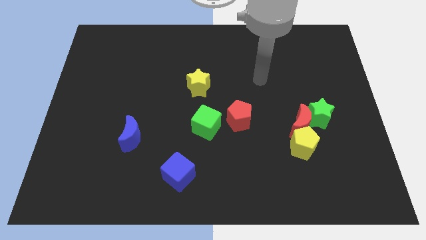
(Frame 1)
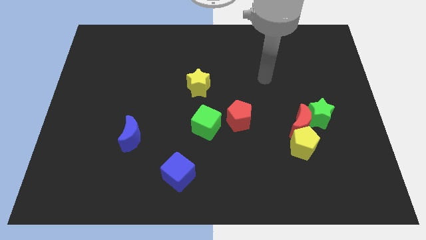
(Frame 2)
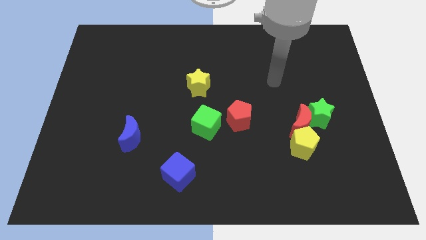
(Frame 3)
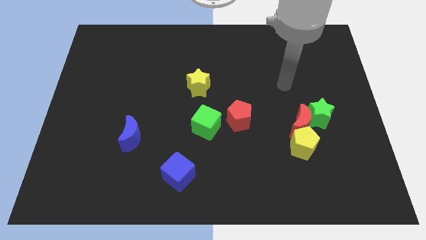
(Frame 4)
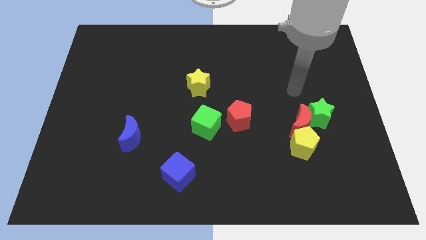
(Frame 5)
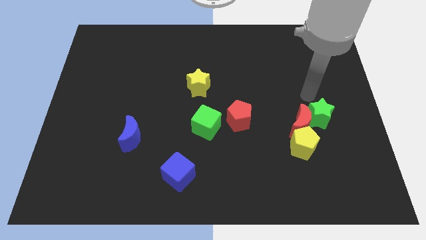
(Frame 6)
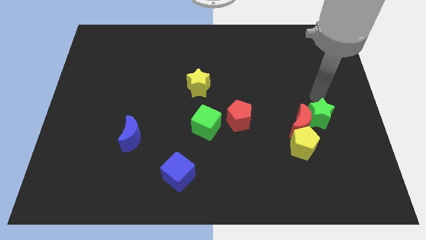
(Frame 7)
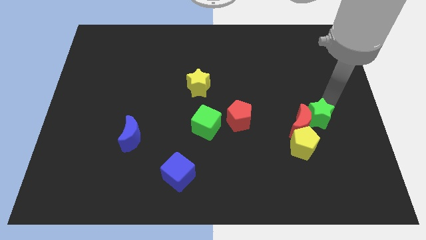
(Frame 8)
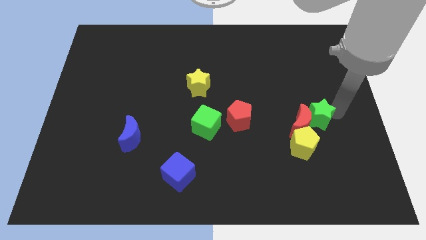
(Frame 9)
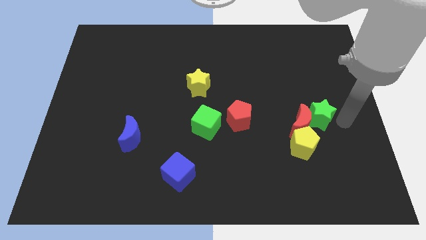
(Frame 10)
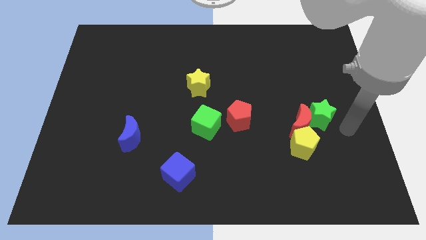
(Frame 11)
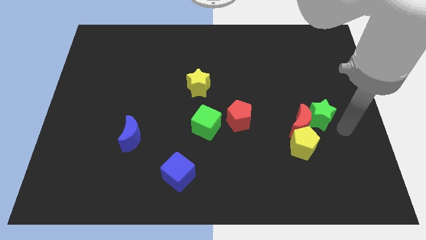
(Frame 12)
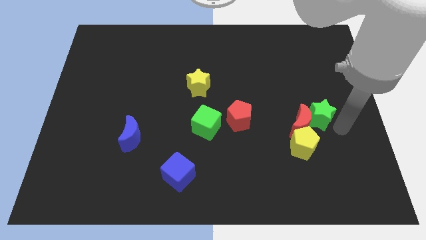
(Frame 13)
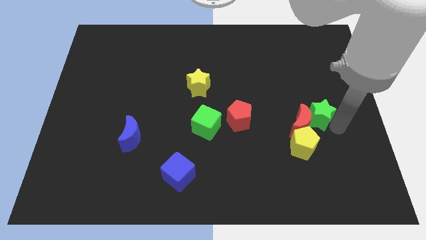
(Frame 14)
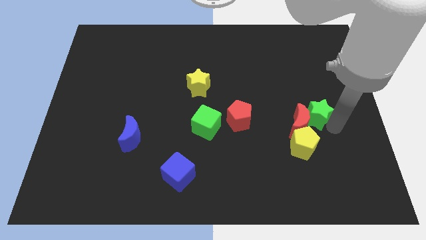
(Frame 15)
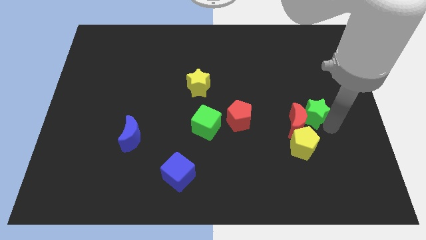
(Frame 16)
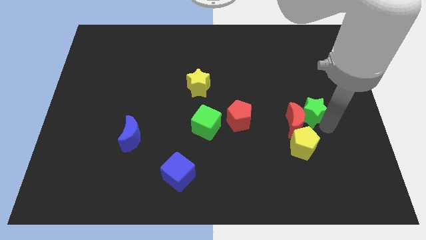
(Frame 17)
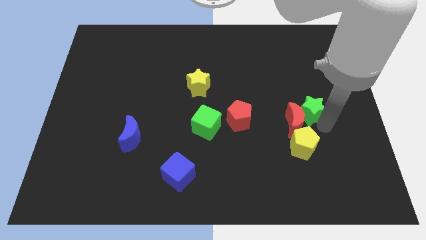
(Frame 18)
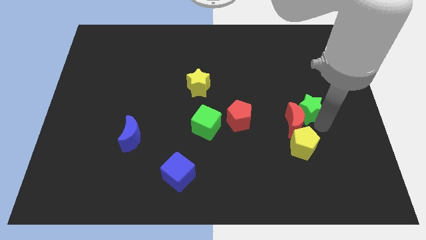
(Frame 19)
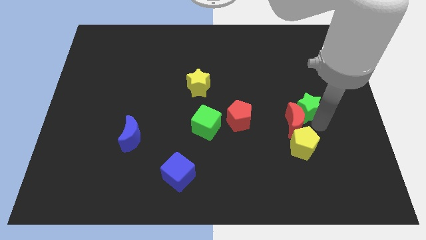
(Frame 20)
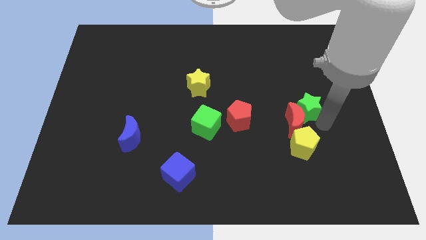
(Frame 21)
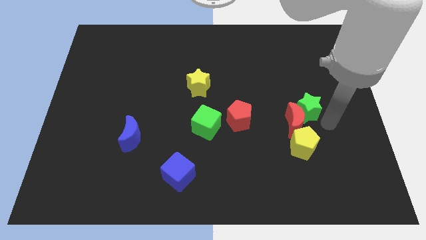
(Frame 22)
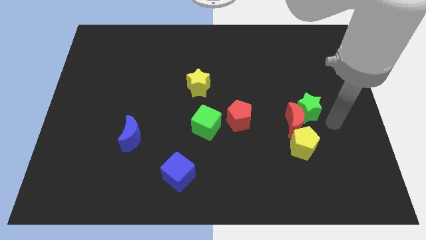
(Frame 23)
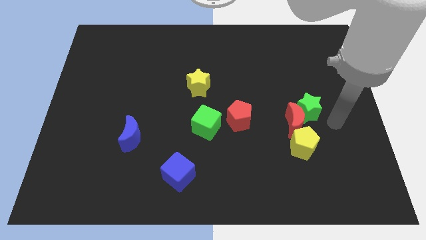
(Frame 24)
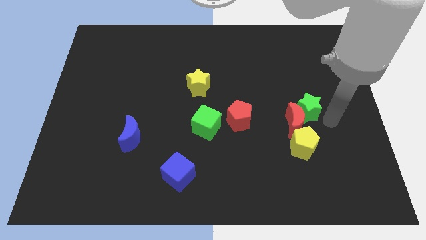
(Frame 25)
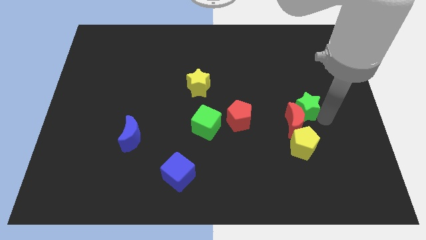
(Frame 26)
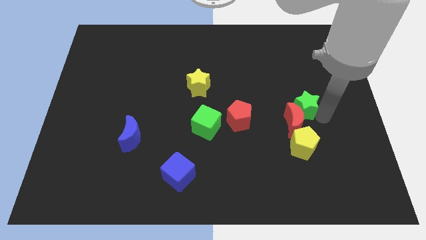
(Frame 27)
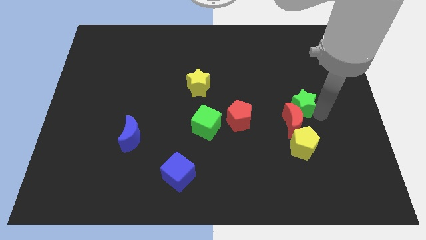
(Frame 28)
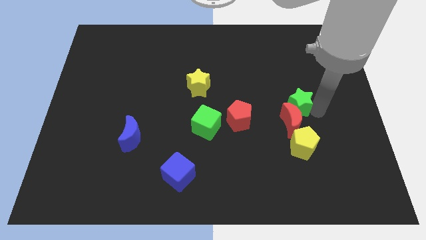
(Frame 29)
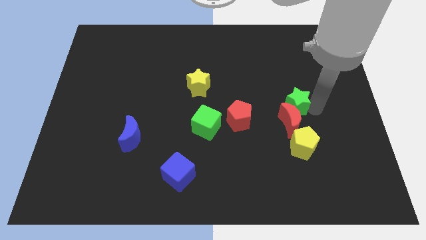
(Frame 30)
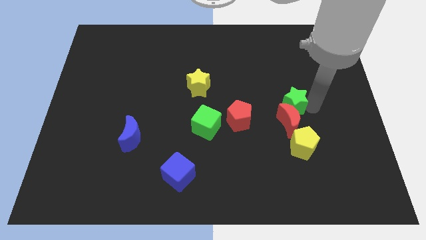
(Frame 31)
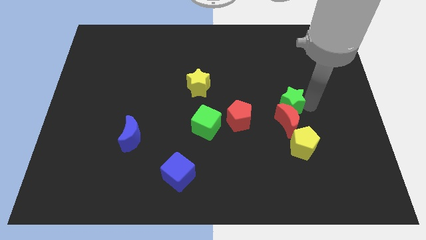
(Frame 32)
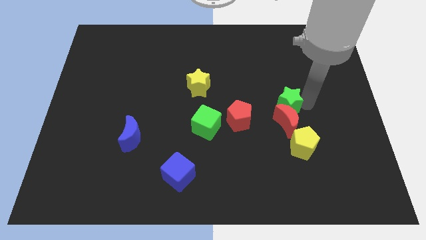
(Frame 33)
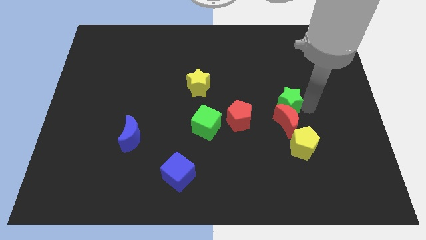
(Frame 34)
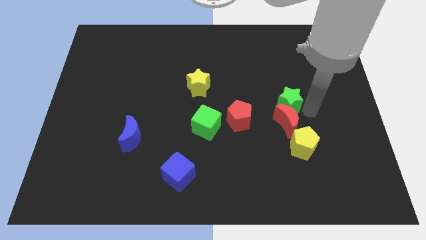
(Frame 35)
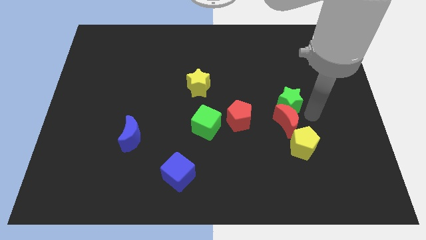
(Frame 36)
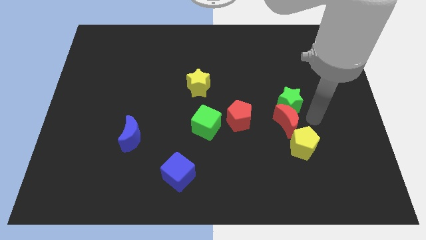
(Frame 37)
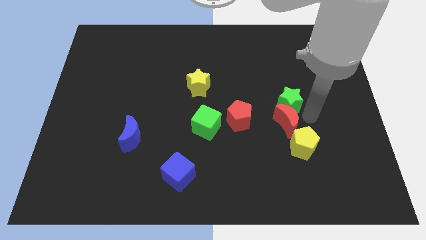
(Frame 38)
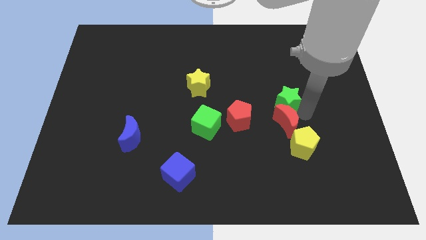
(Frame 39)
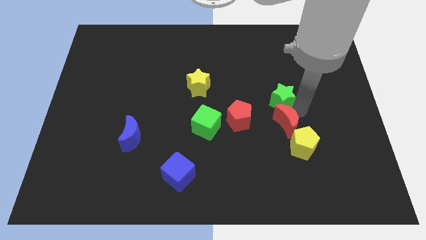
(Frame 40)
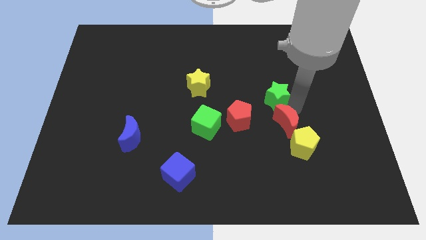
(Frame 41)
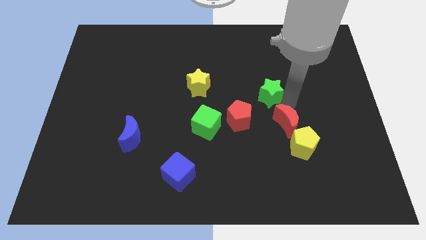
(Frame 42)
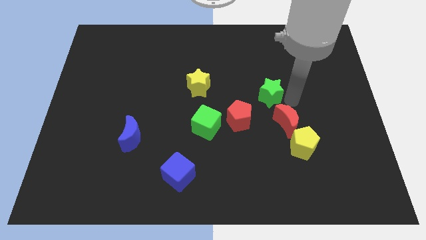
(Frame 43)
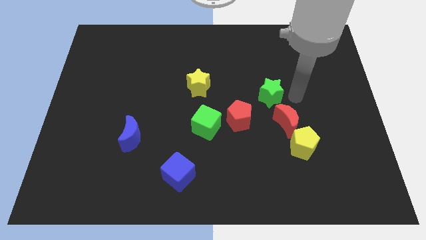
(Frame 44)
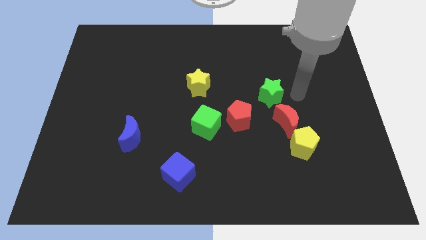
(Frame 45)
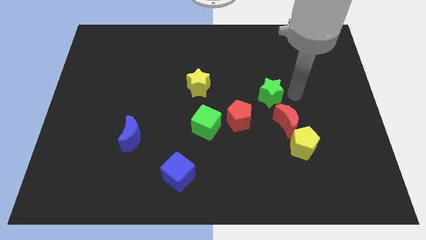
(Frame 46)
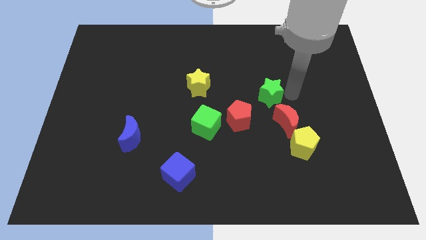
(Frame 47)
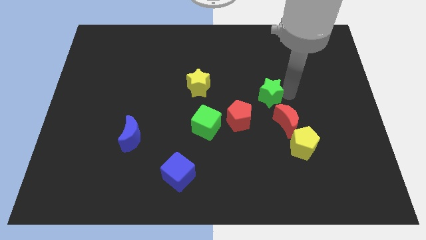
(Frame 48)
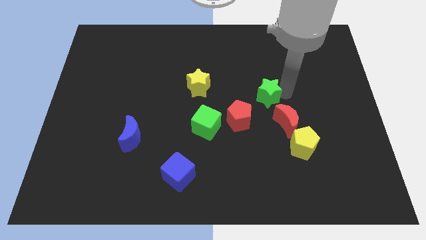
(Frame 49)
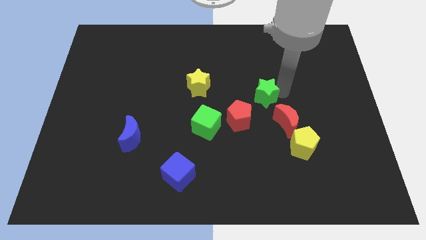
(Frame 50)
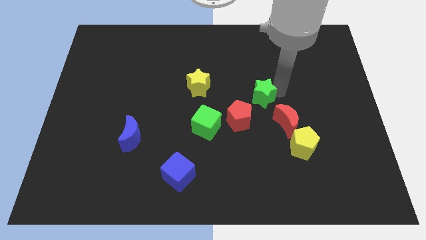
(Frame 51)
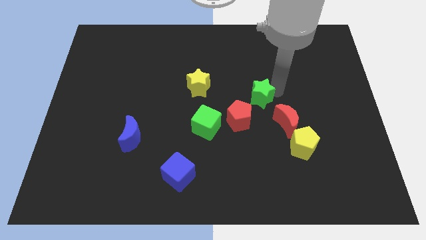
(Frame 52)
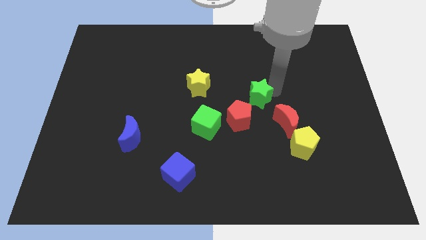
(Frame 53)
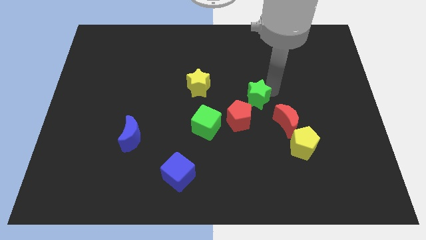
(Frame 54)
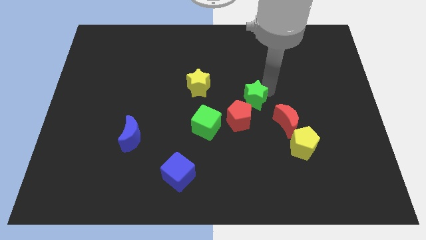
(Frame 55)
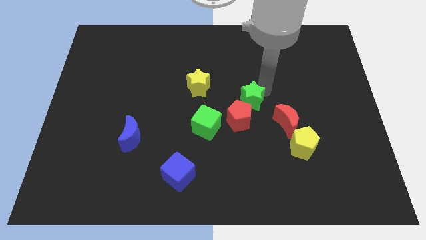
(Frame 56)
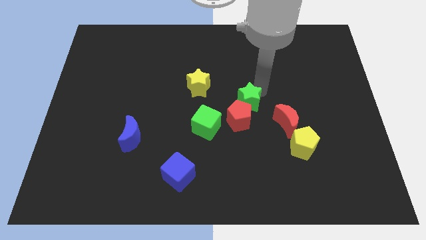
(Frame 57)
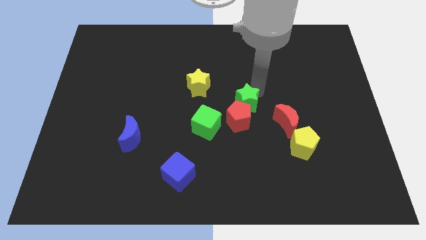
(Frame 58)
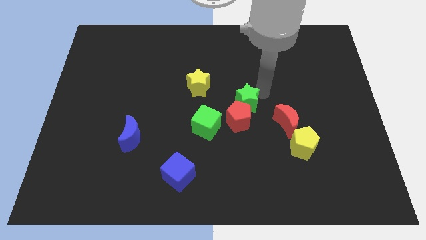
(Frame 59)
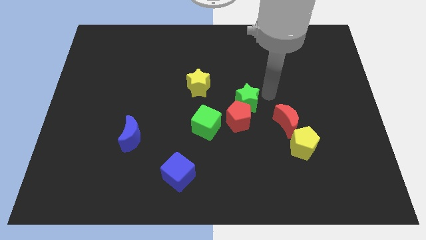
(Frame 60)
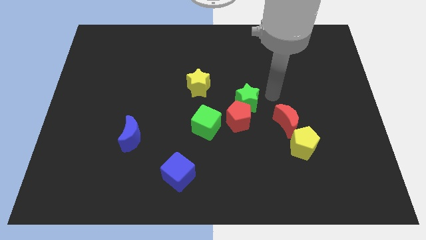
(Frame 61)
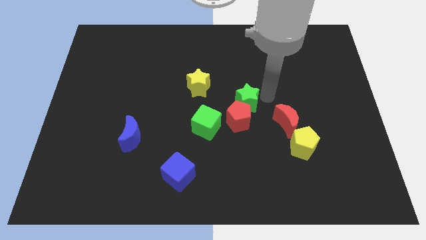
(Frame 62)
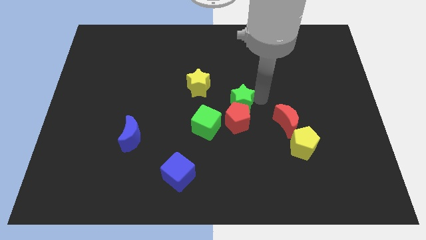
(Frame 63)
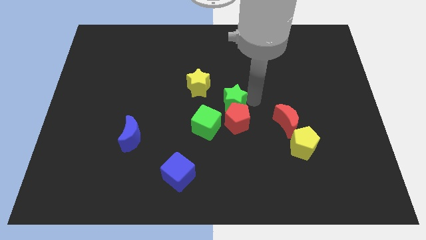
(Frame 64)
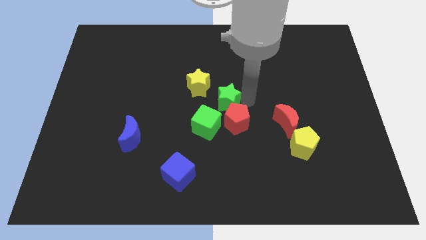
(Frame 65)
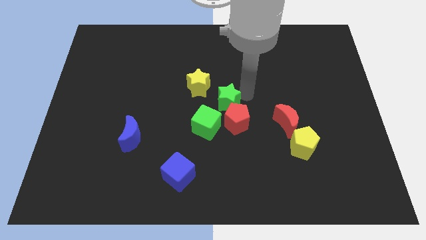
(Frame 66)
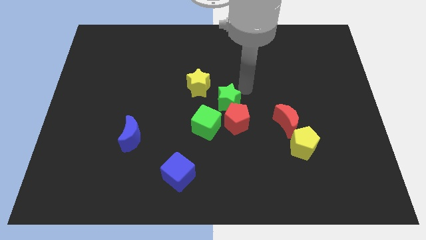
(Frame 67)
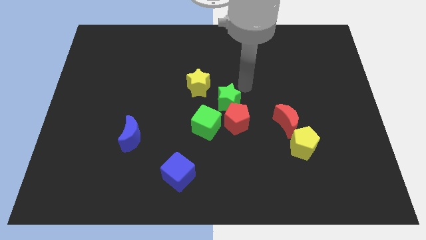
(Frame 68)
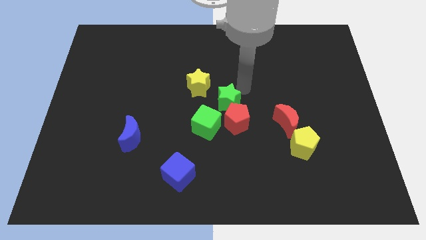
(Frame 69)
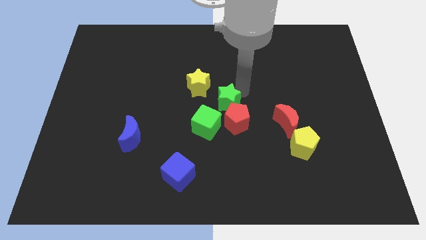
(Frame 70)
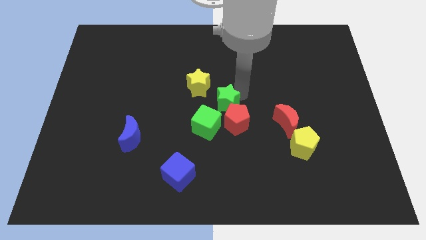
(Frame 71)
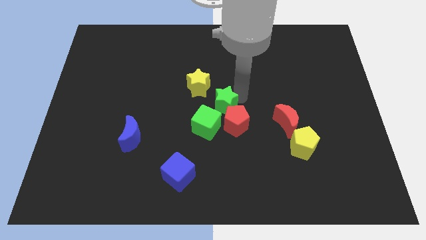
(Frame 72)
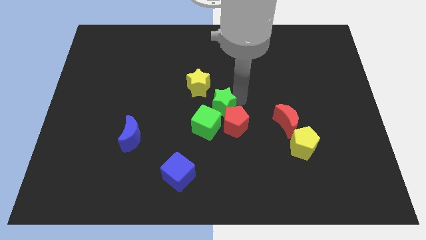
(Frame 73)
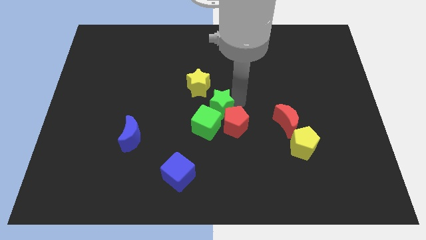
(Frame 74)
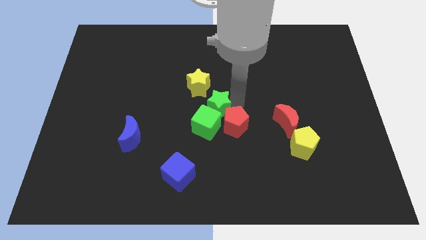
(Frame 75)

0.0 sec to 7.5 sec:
push the green star close to the green cube

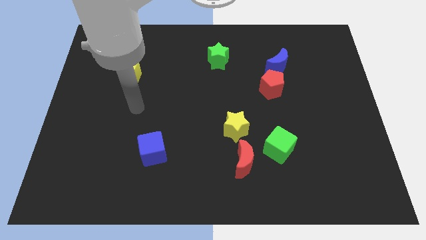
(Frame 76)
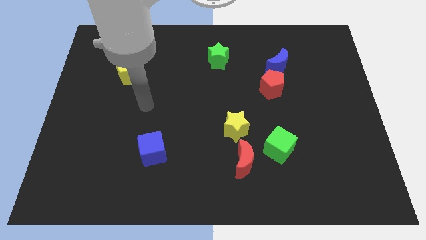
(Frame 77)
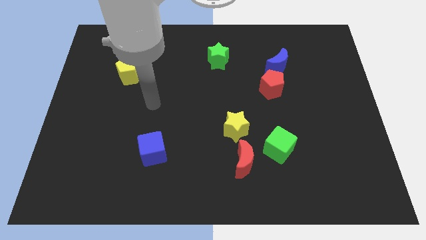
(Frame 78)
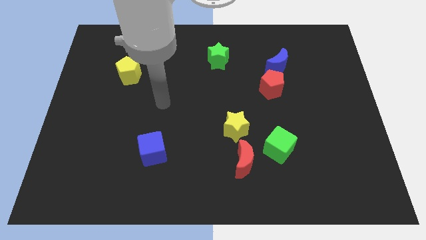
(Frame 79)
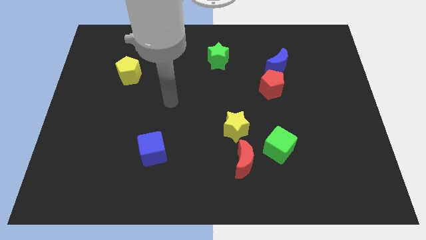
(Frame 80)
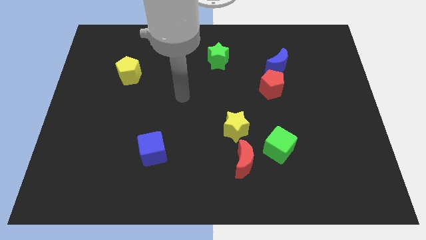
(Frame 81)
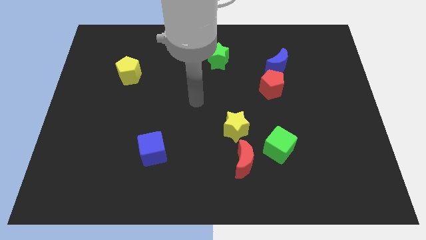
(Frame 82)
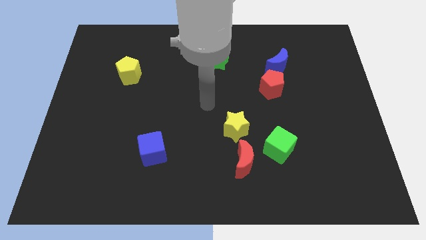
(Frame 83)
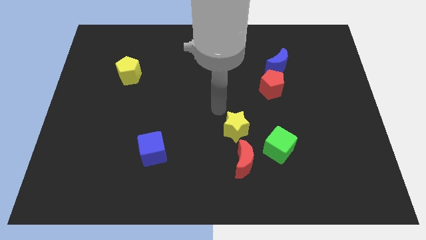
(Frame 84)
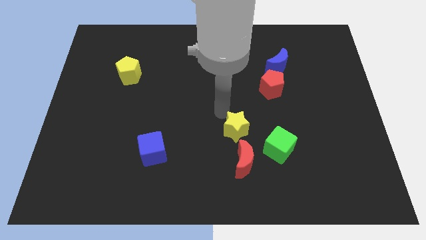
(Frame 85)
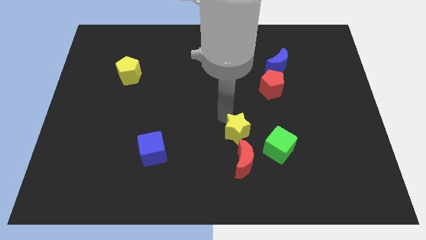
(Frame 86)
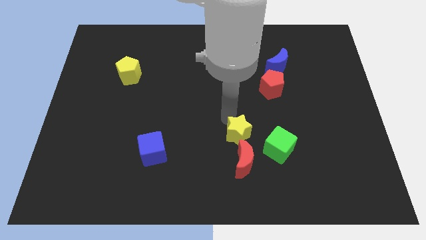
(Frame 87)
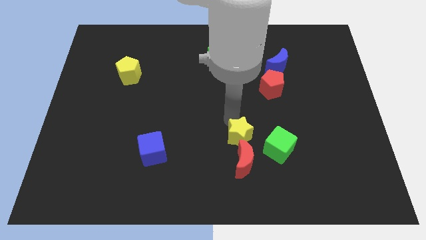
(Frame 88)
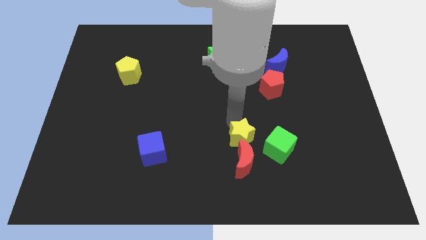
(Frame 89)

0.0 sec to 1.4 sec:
move the yellow star towards the red moon
